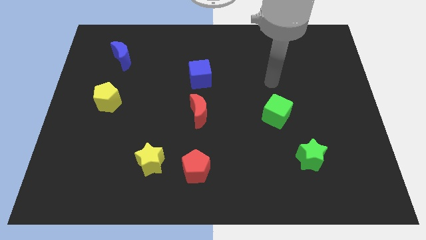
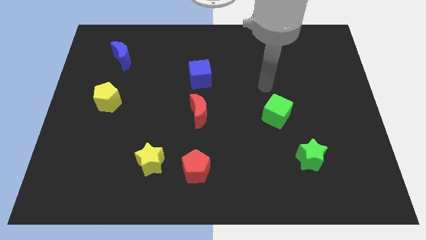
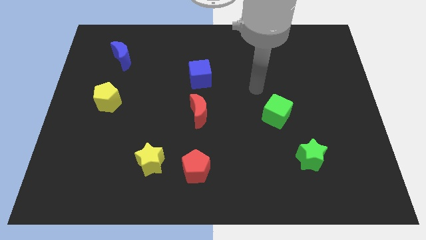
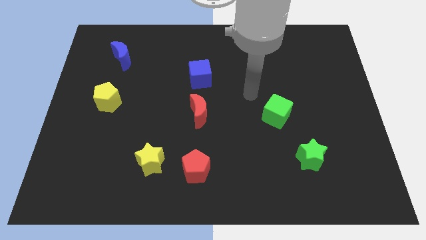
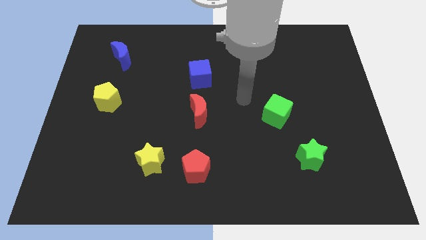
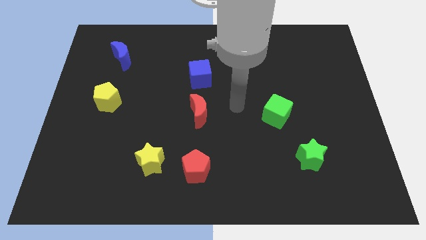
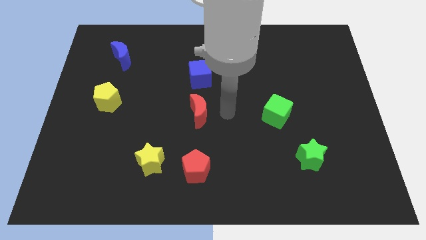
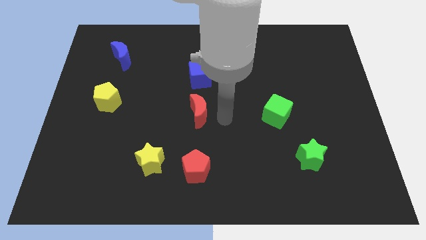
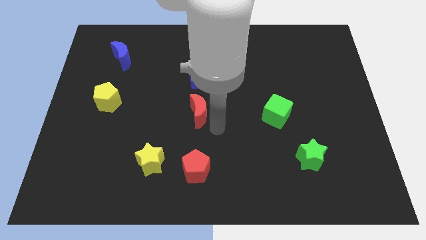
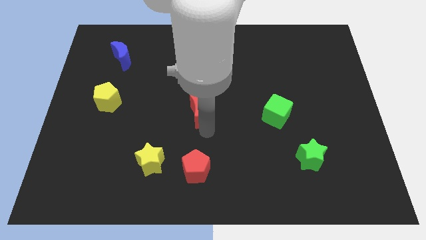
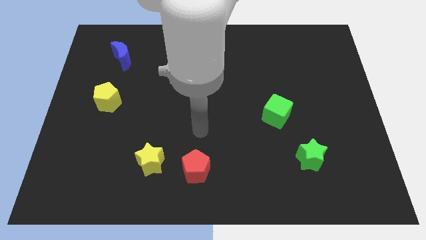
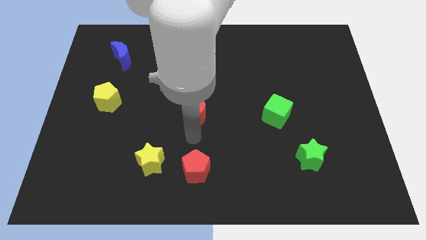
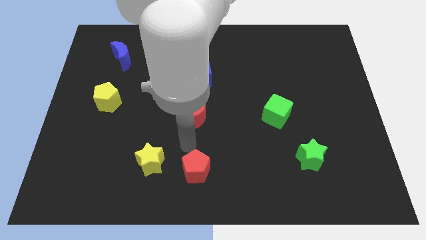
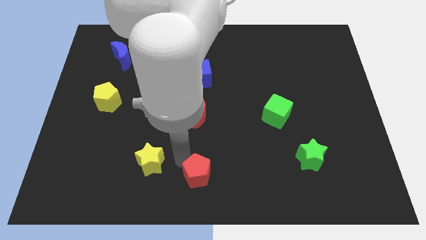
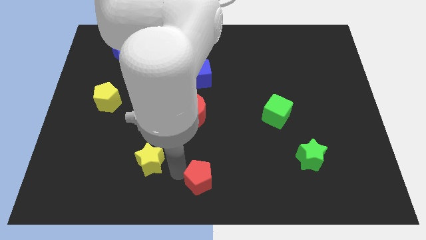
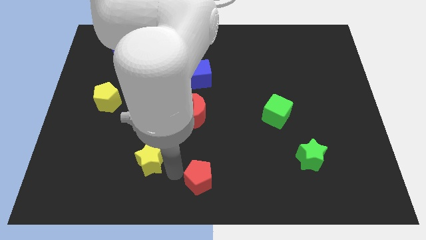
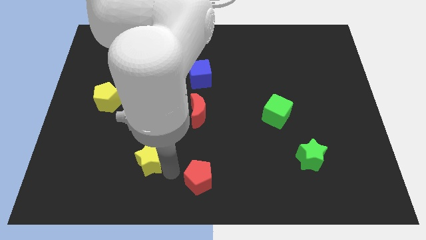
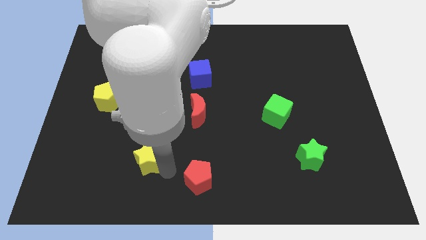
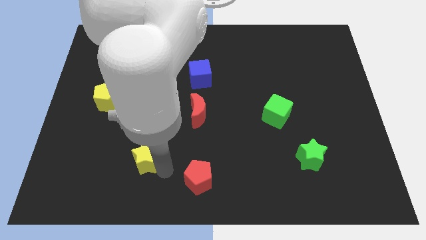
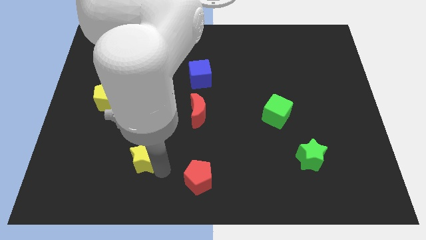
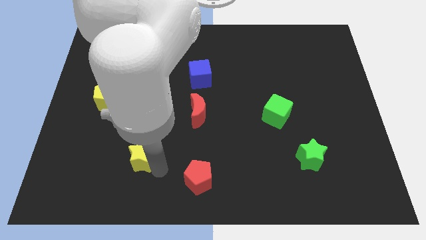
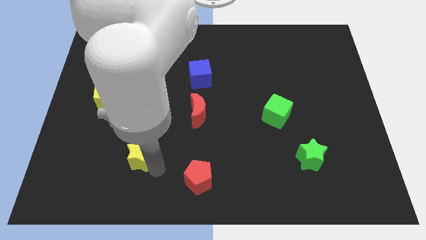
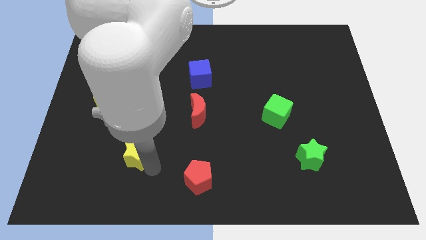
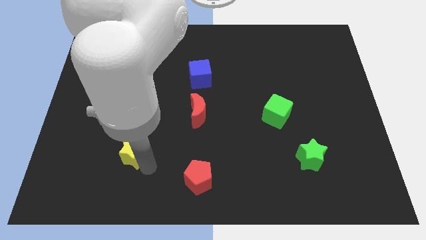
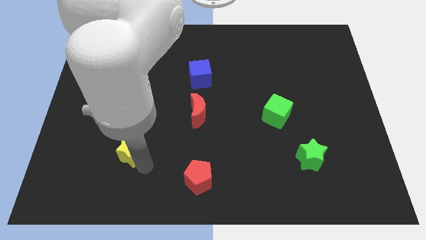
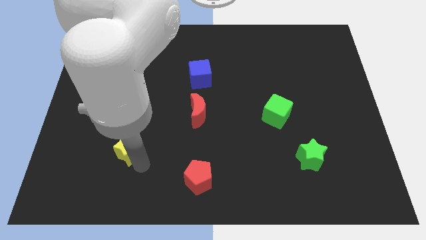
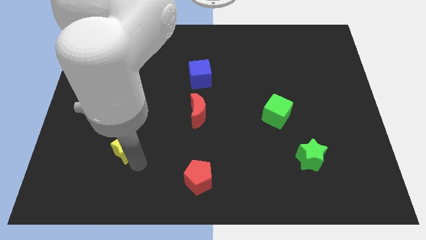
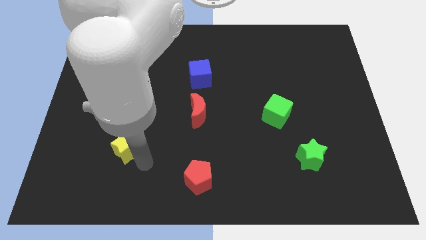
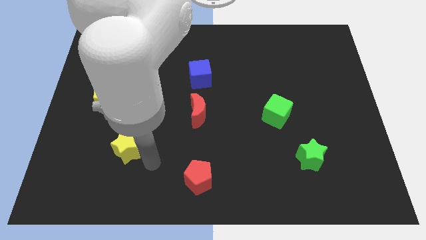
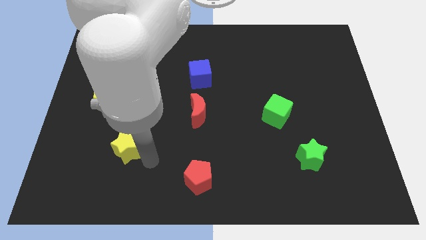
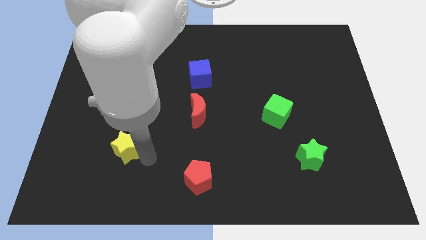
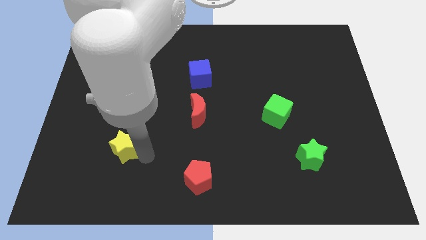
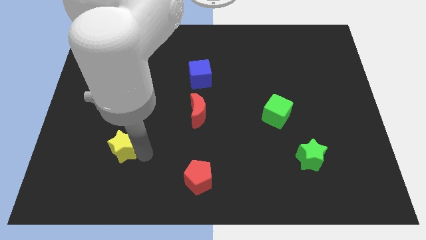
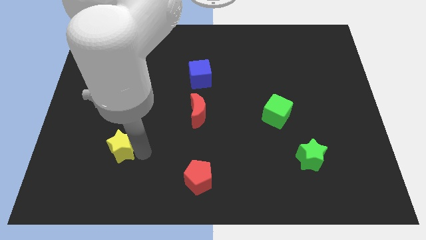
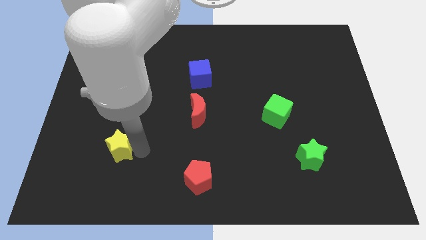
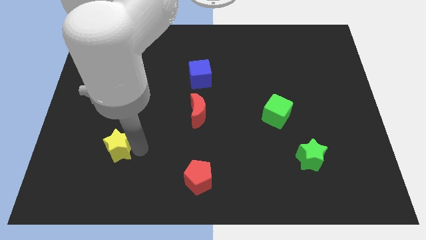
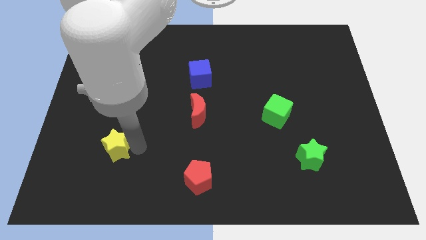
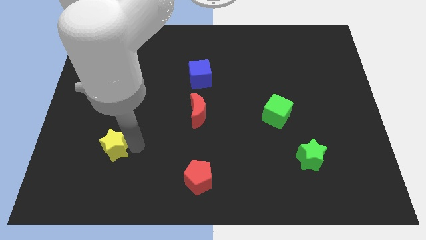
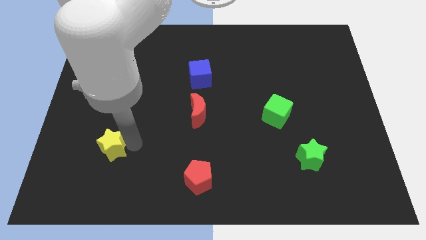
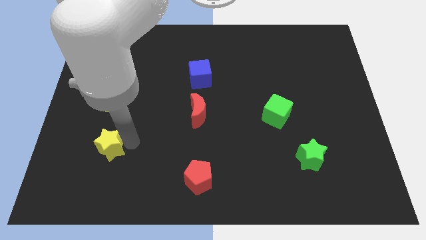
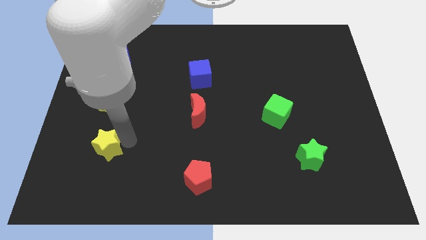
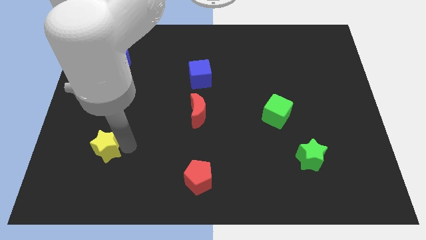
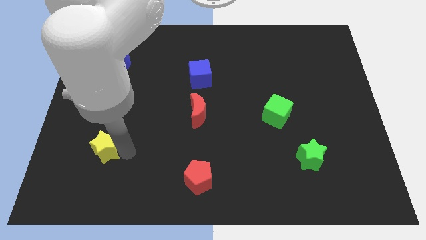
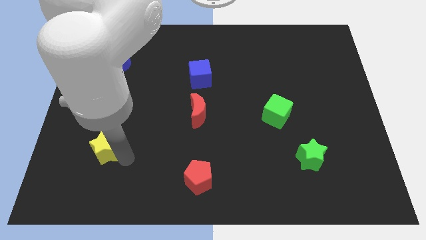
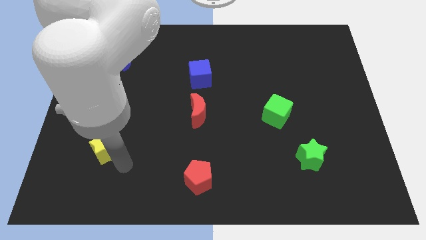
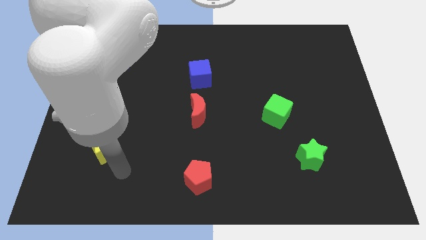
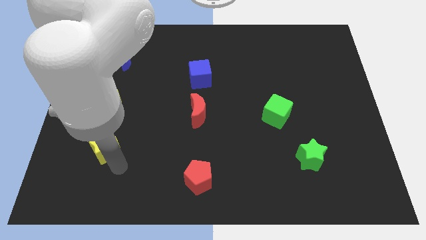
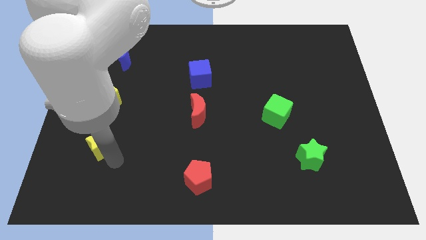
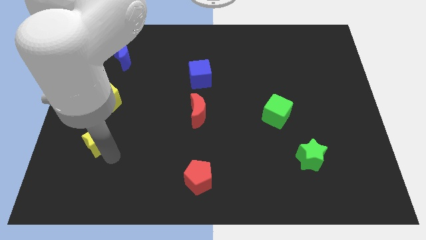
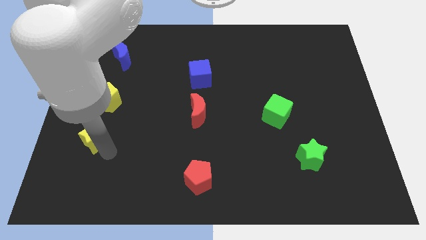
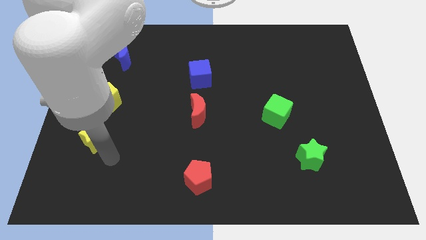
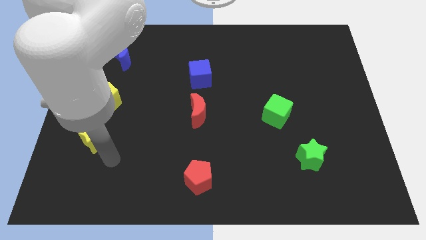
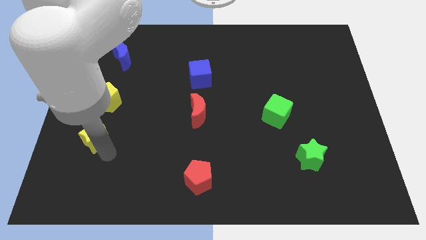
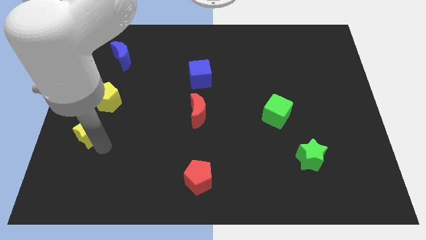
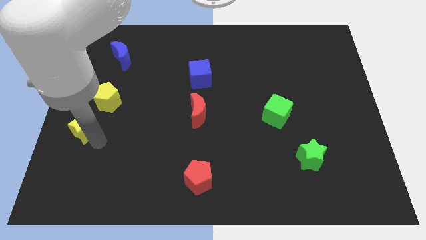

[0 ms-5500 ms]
push the yellow star to the center left

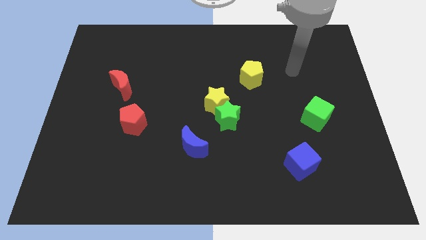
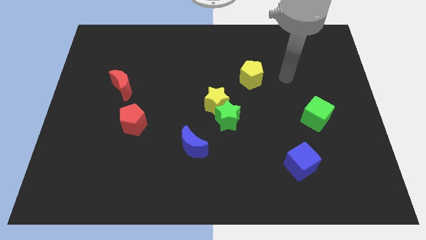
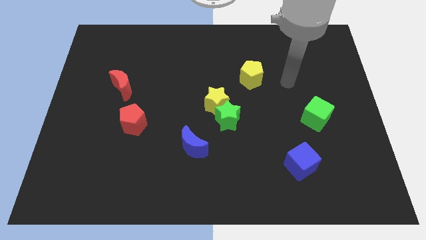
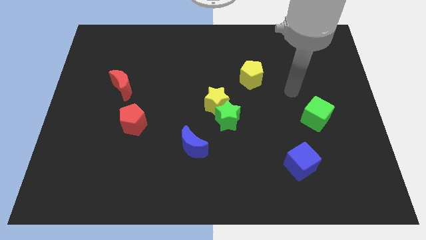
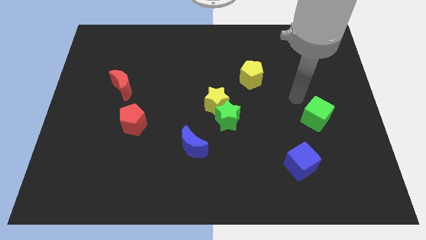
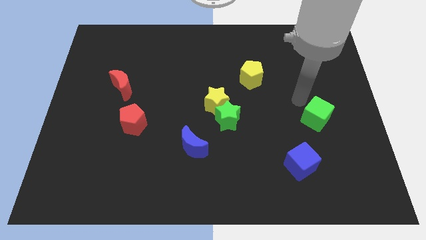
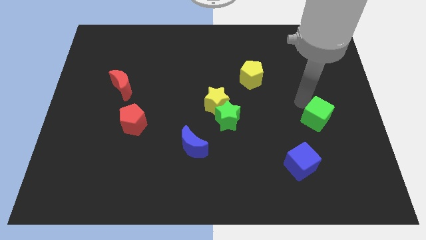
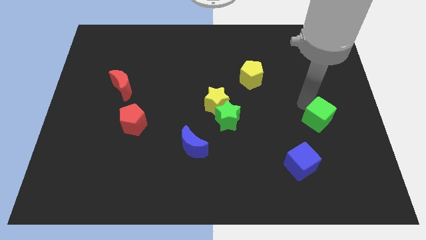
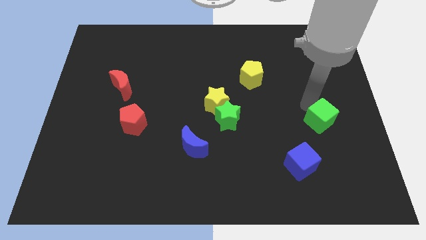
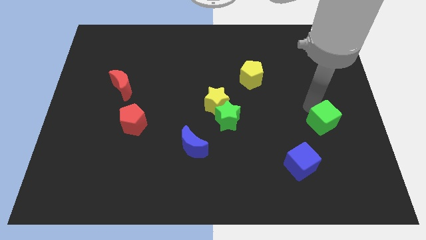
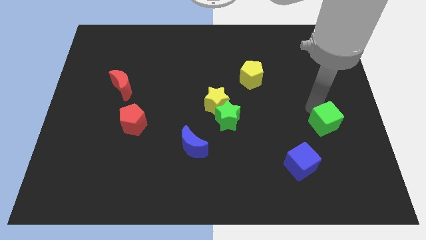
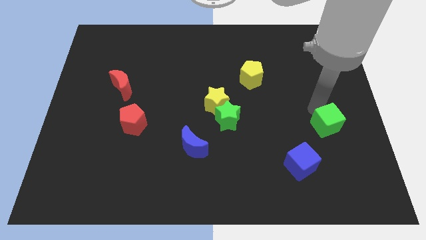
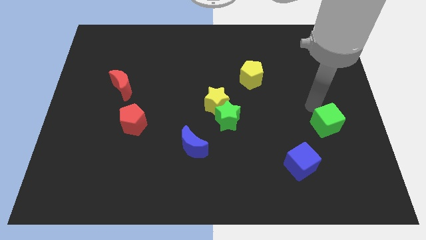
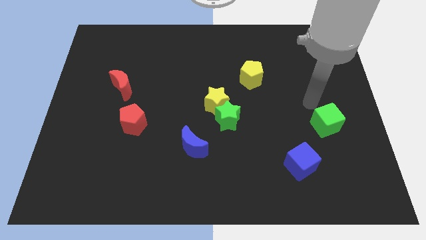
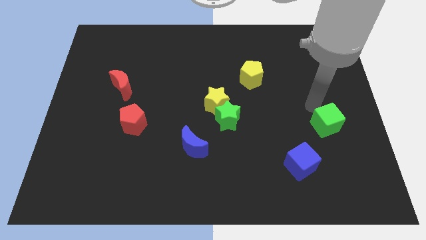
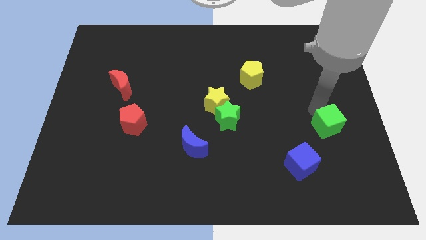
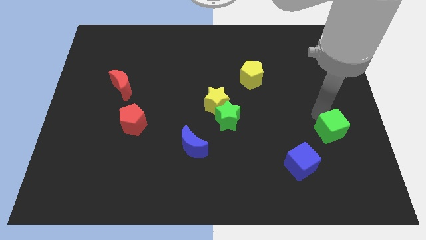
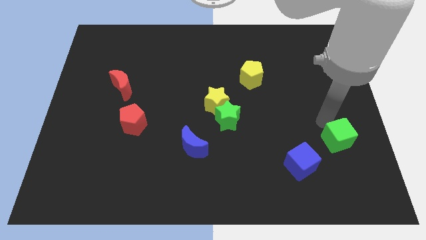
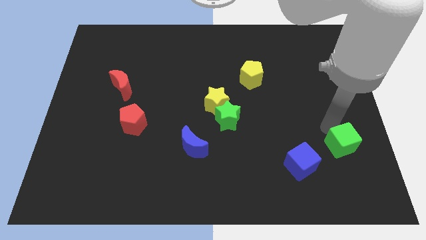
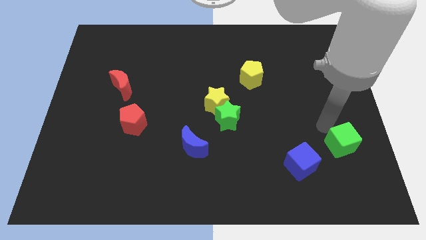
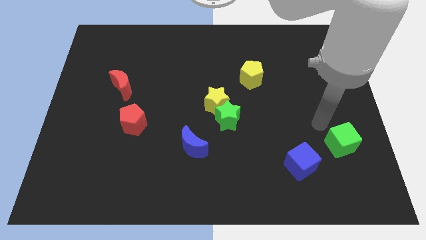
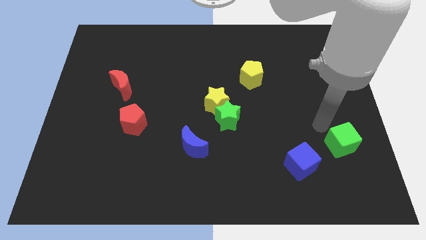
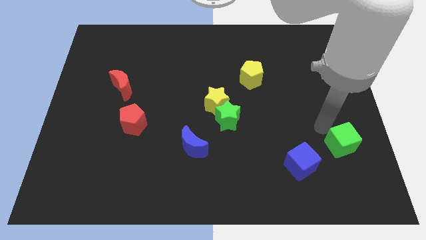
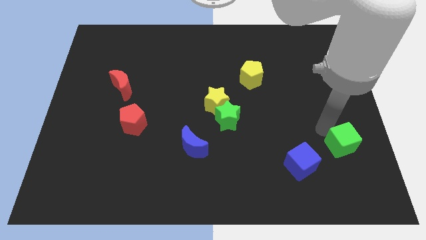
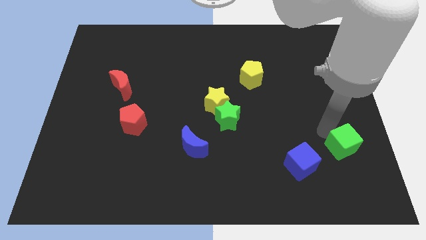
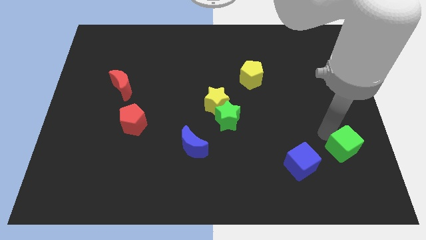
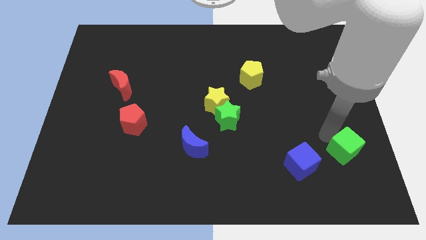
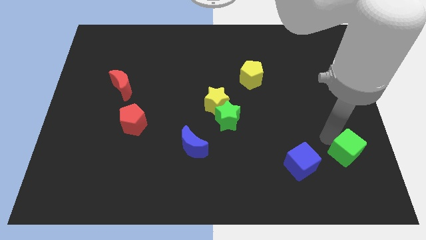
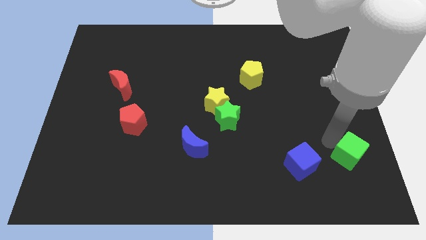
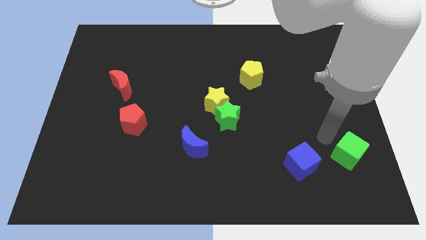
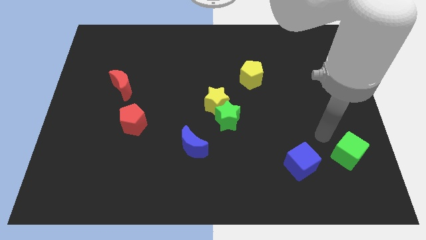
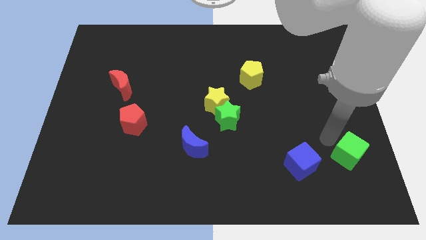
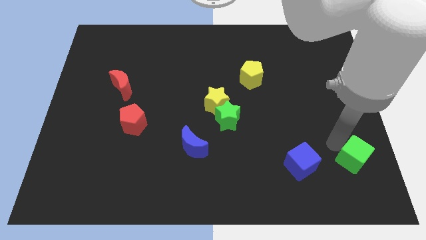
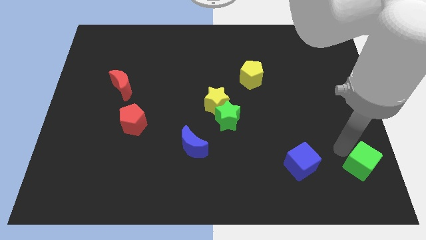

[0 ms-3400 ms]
push the green cube to the bottom right of the board
